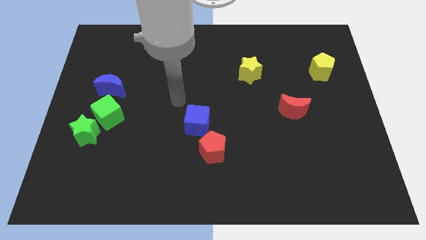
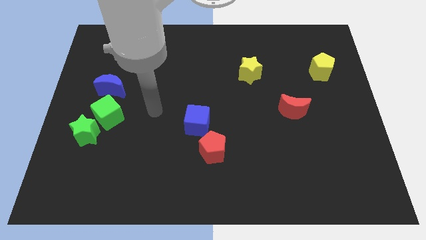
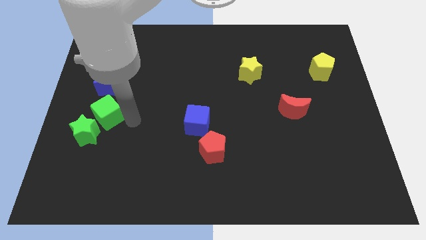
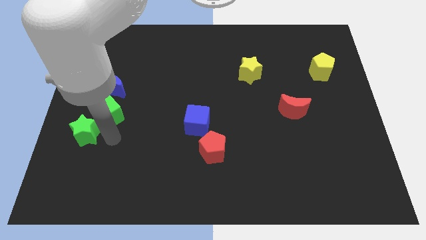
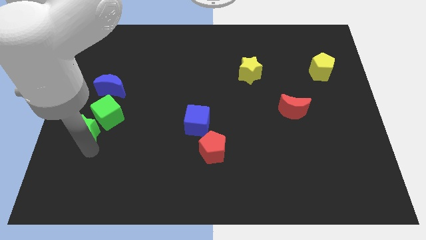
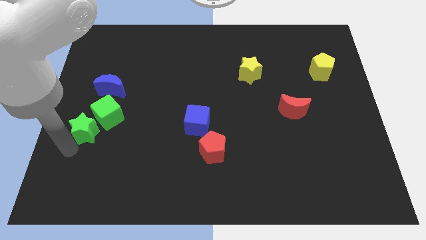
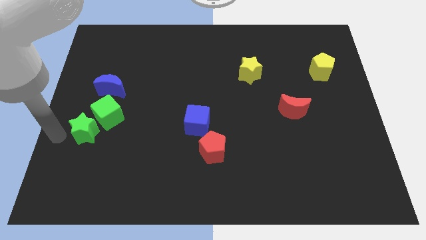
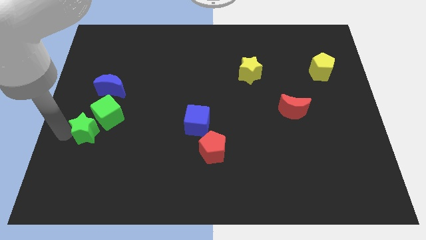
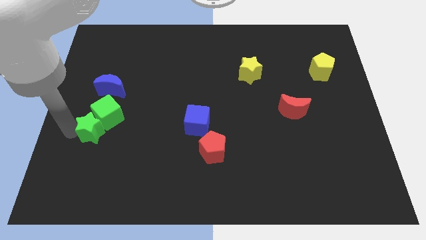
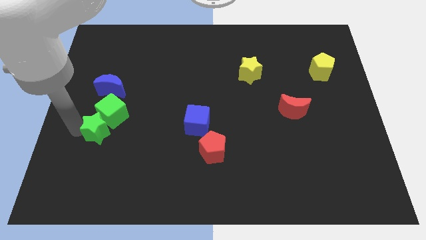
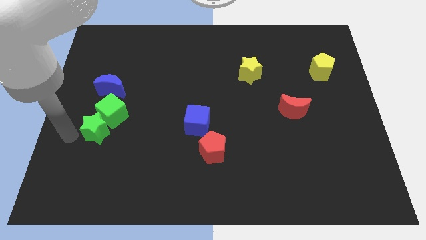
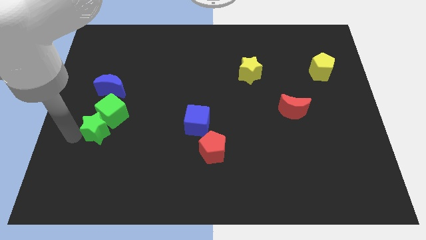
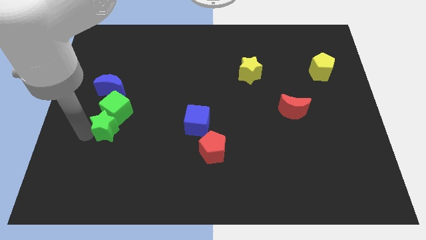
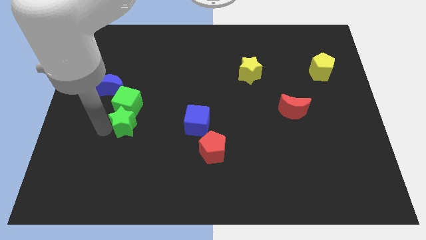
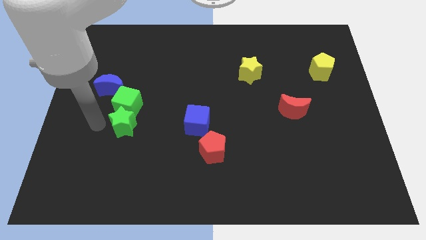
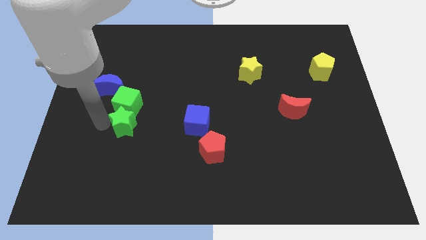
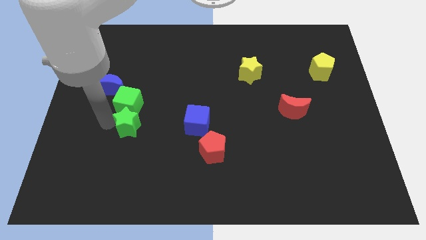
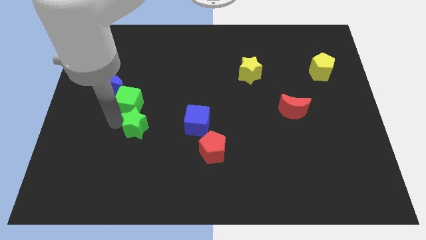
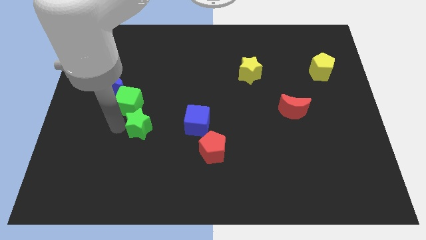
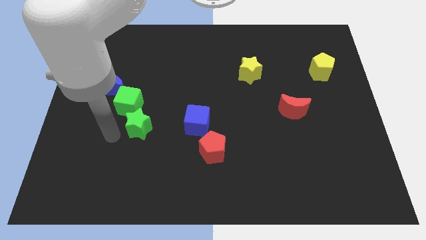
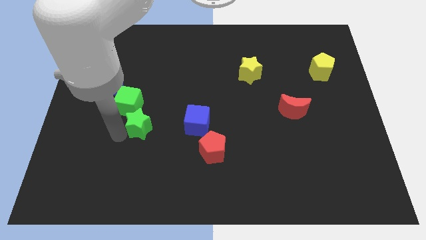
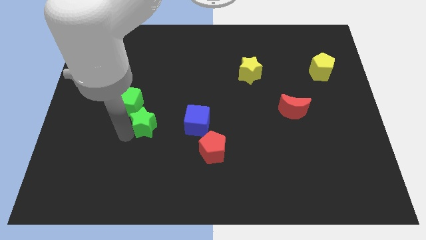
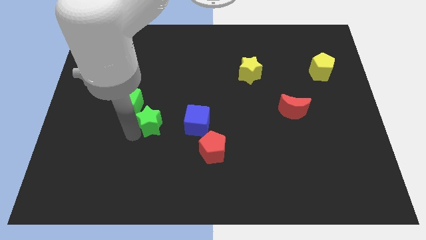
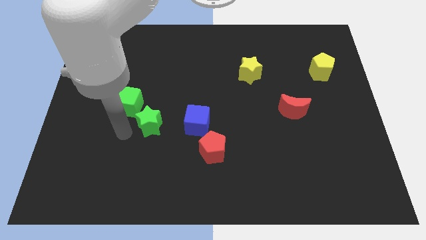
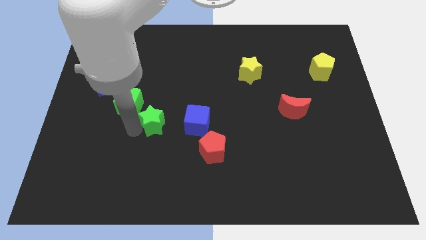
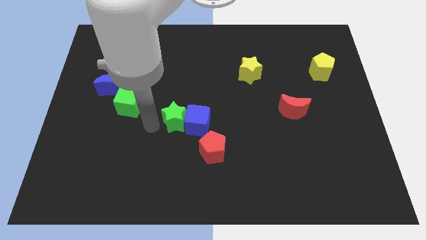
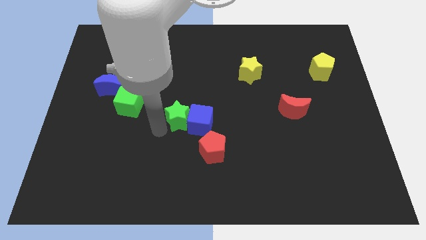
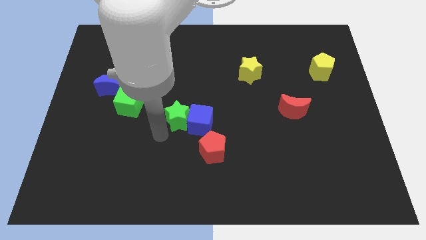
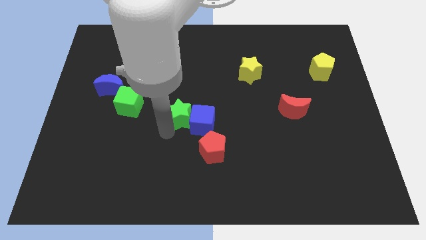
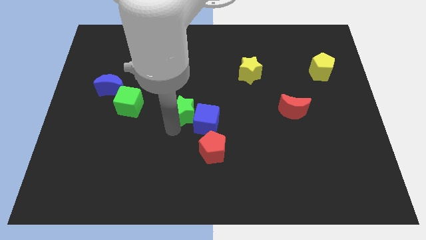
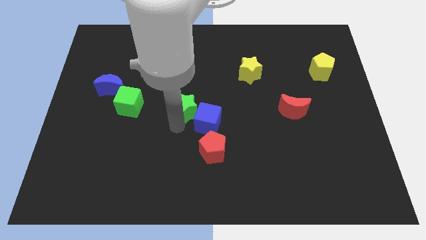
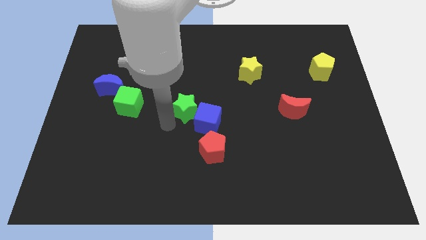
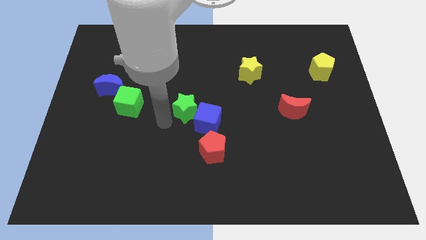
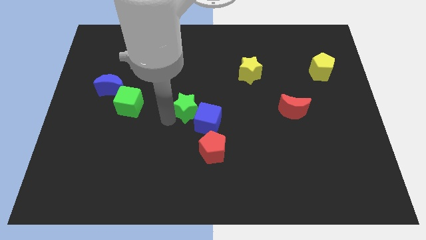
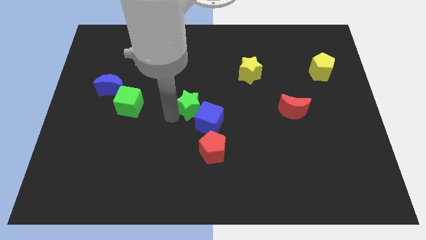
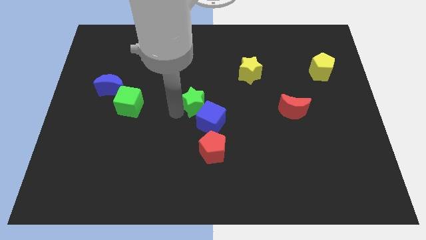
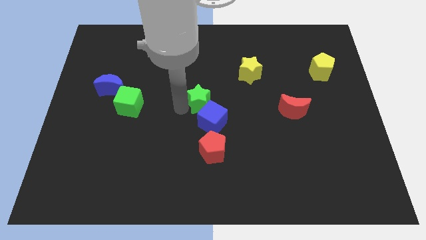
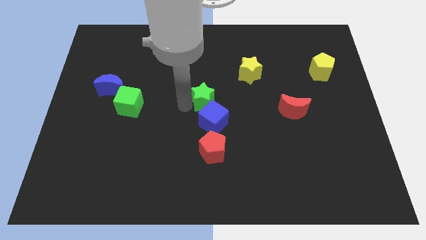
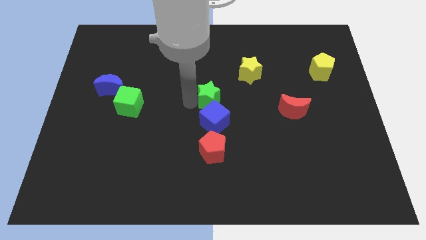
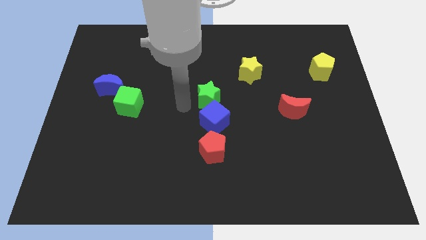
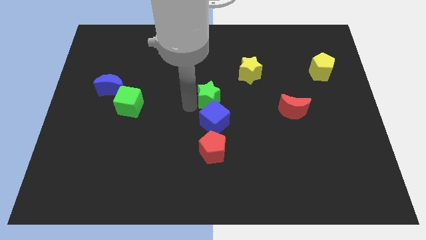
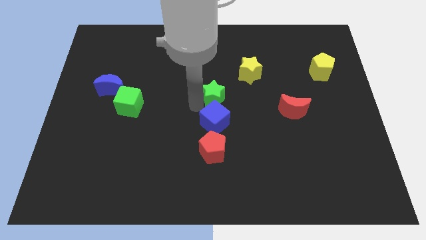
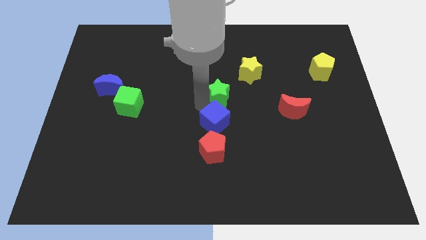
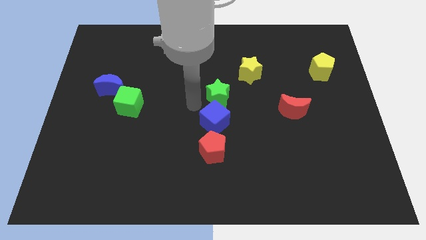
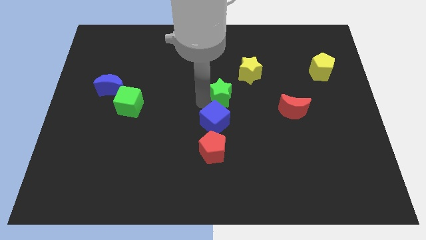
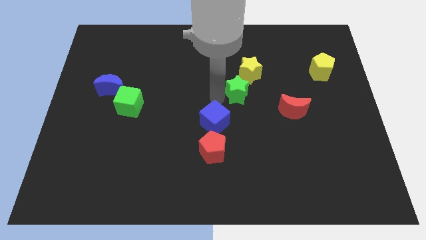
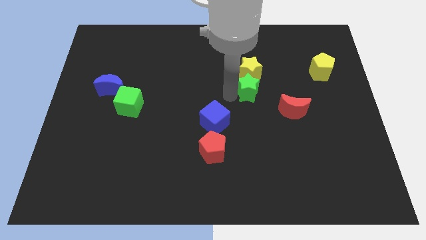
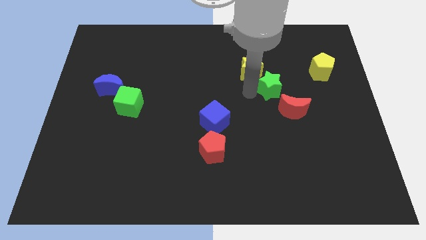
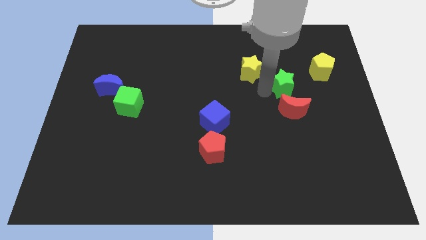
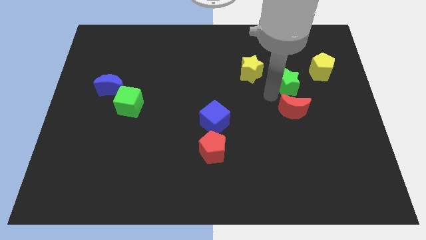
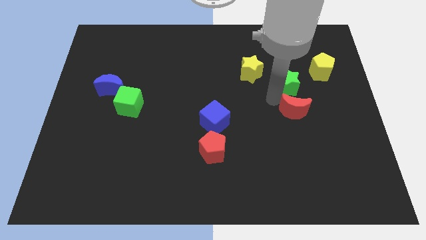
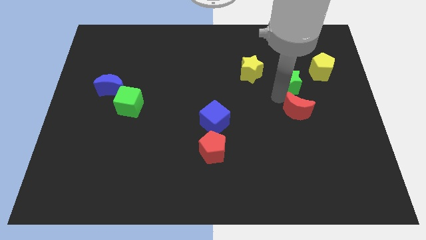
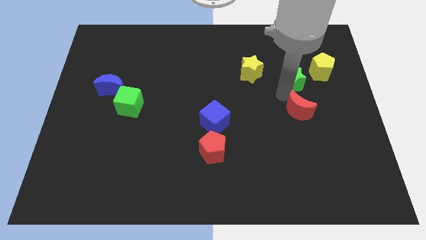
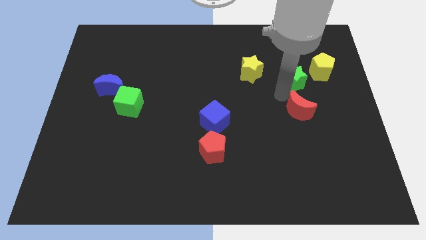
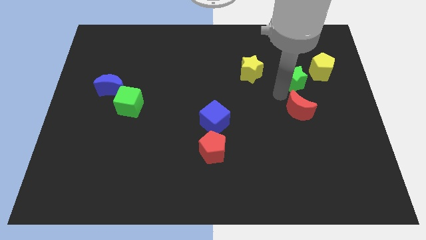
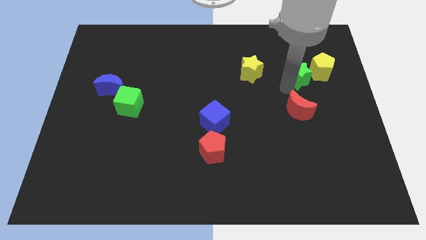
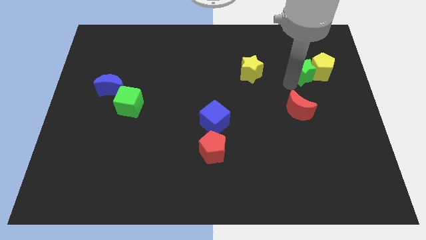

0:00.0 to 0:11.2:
push the green star next to the yellow pentagon

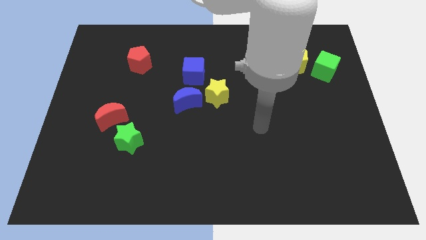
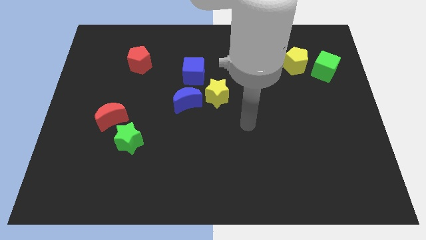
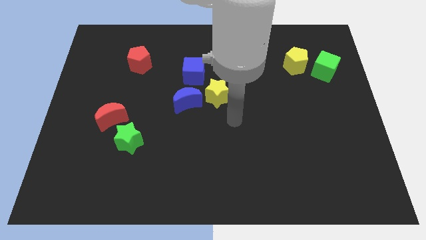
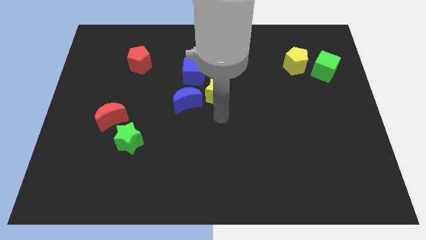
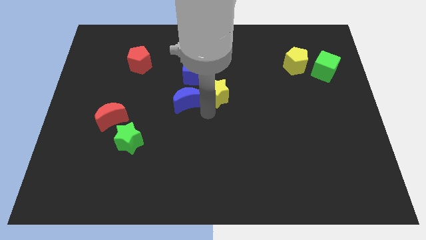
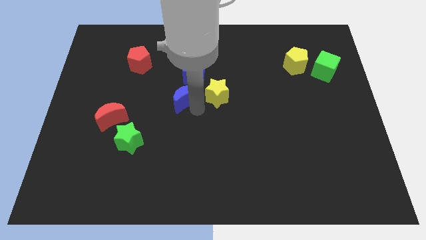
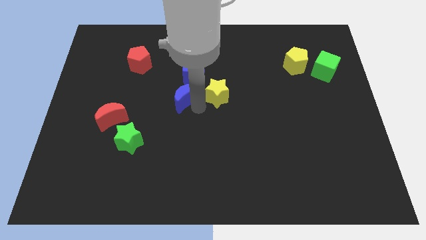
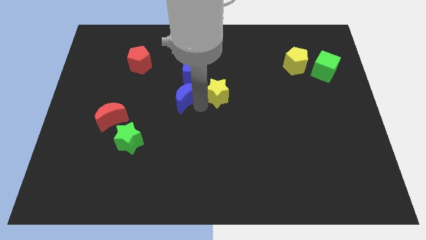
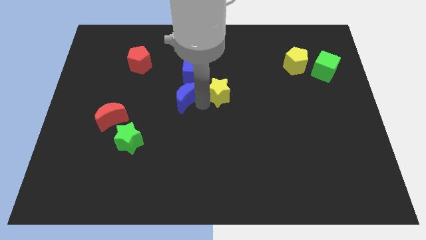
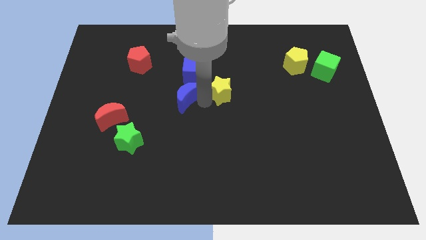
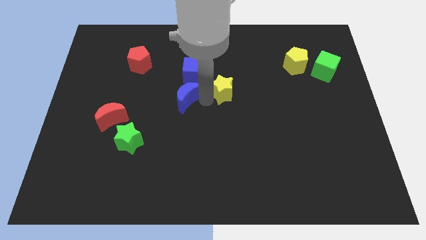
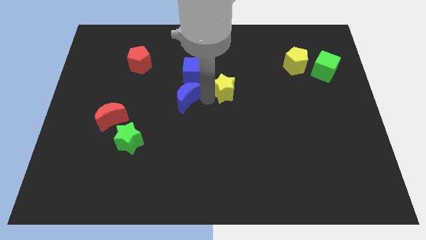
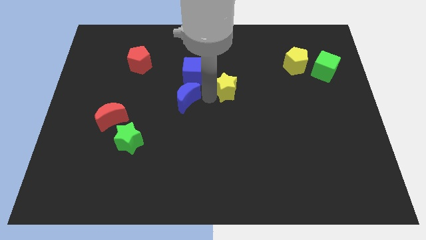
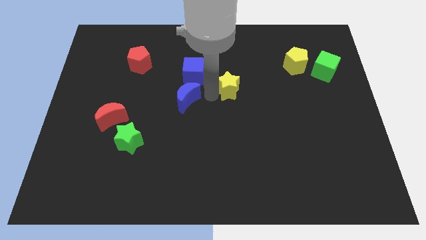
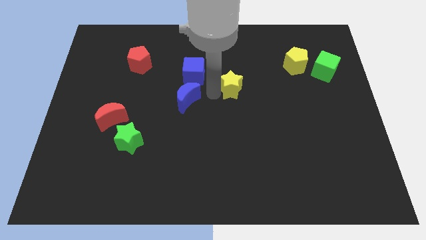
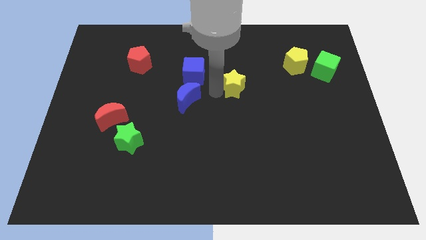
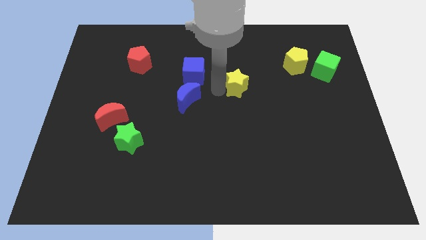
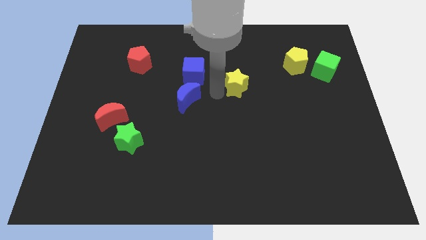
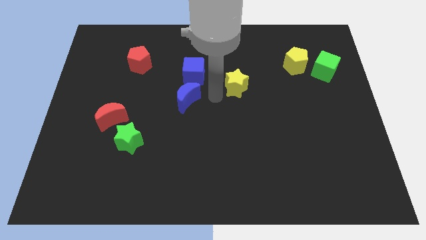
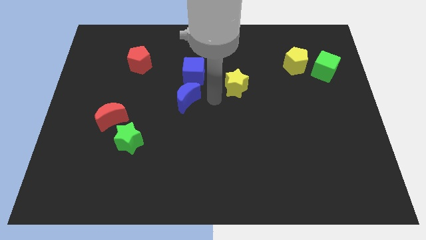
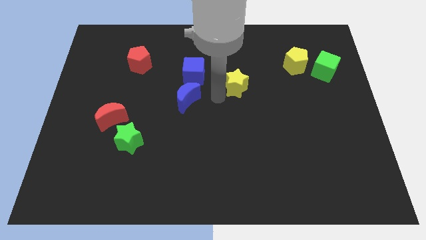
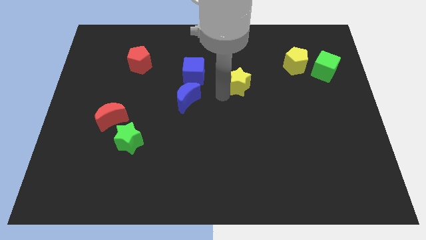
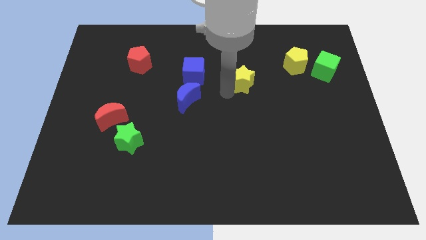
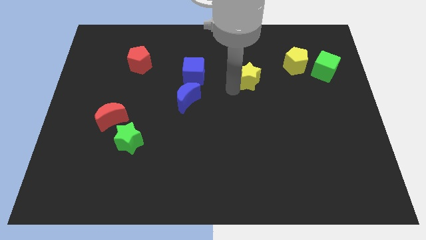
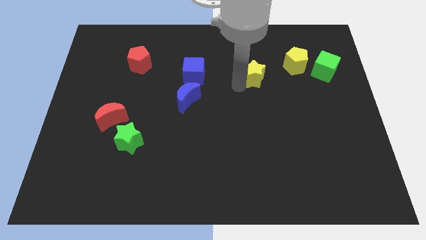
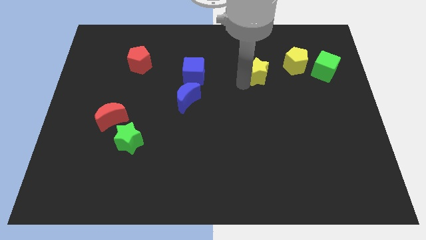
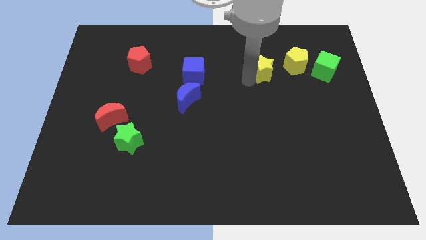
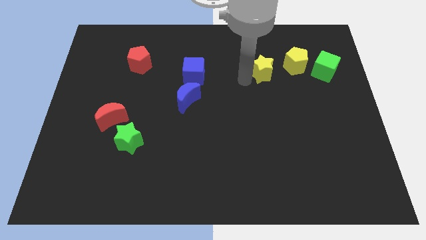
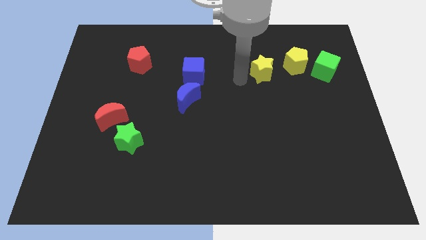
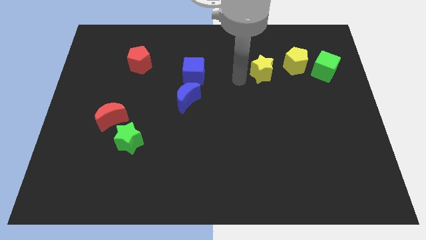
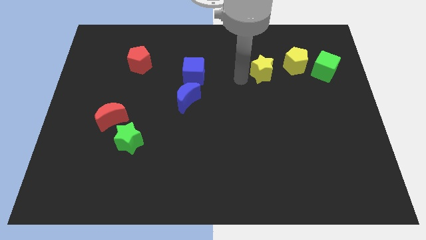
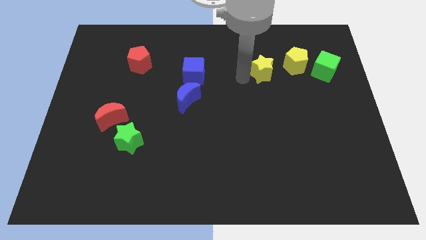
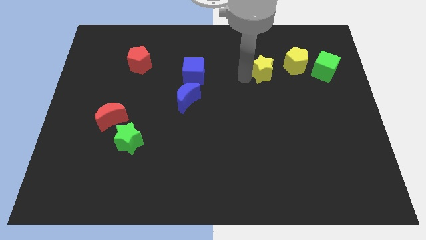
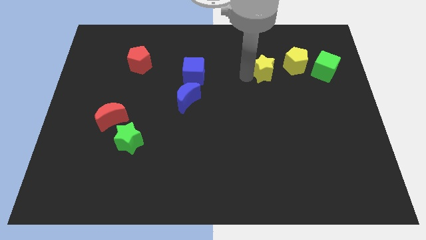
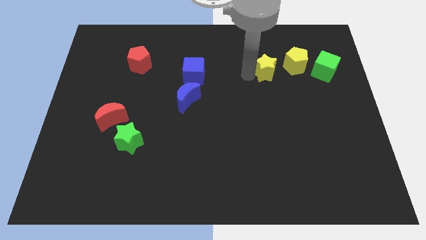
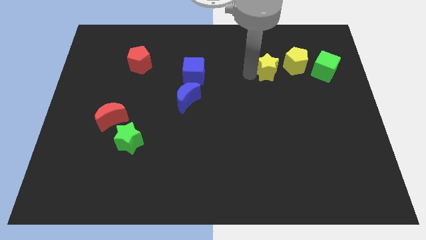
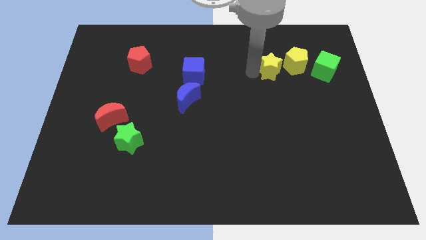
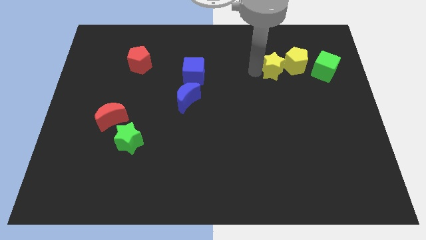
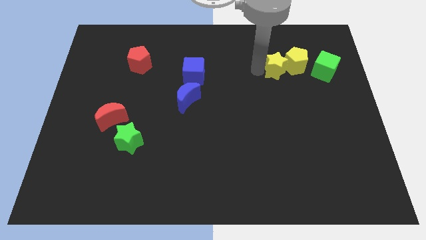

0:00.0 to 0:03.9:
move the yellow star next to the yellow pentagon
